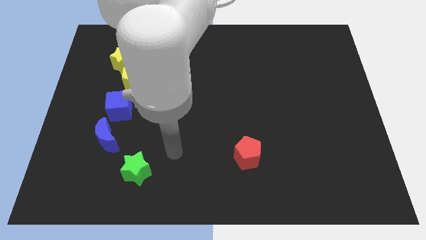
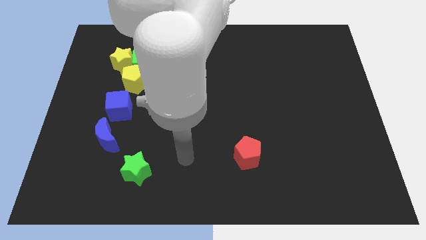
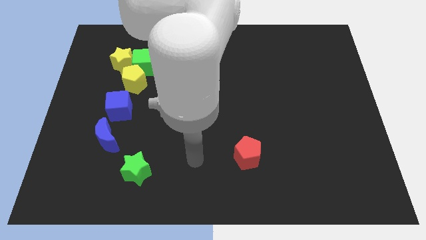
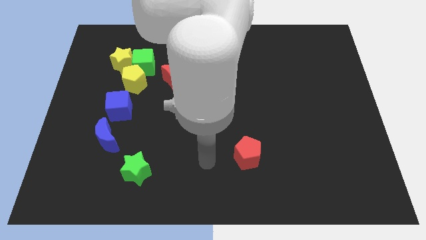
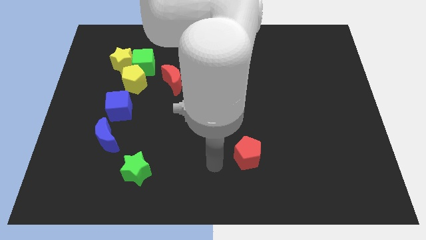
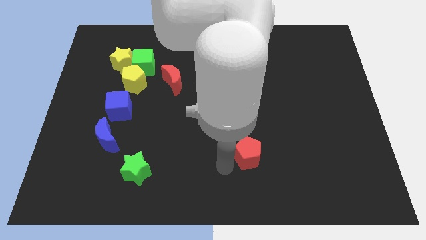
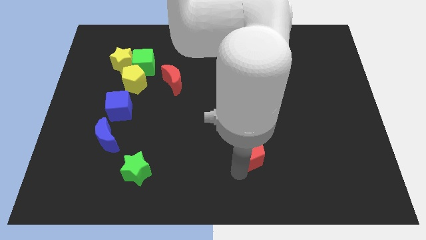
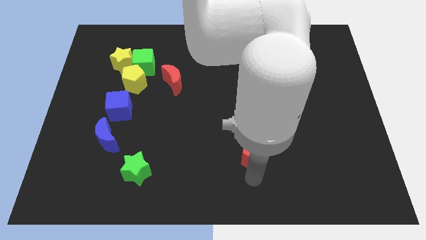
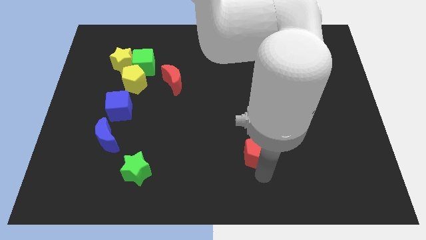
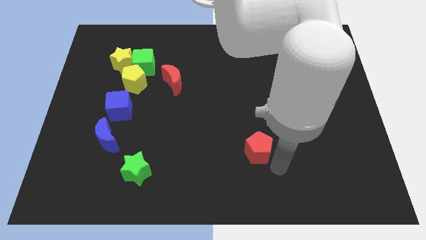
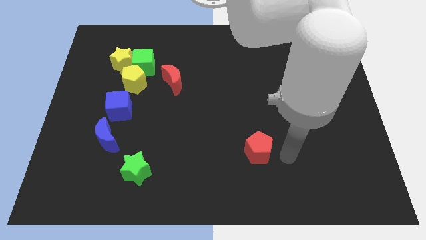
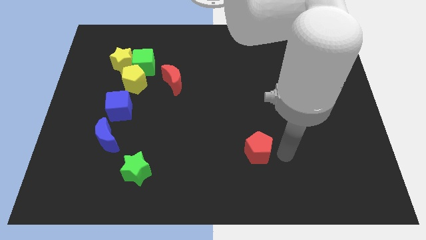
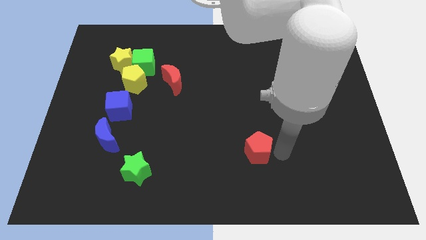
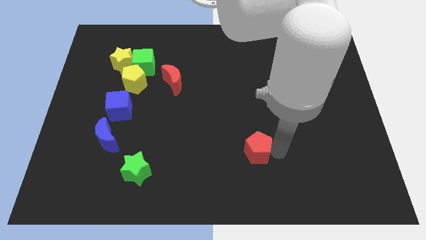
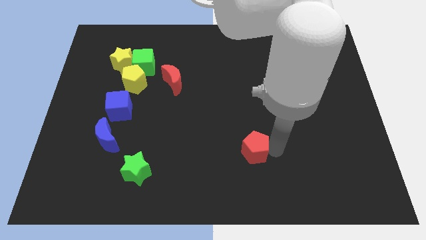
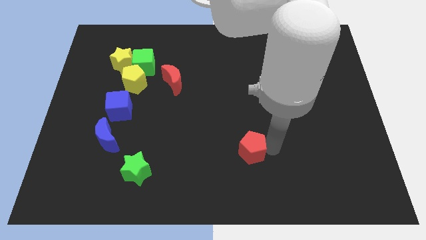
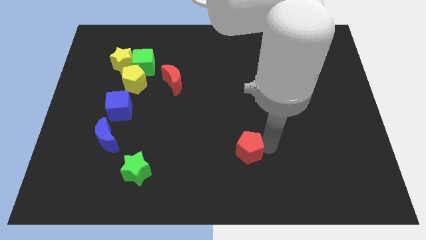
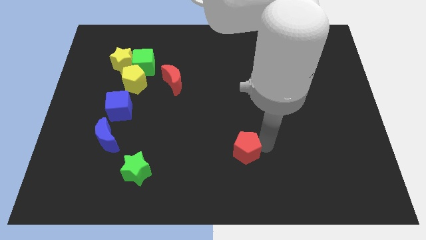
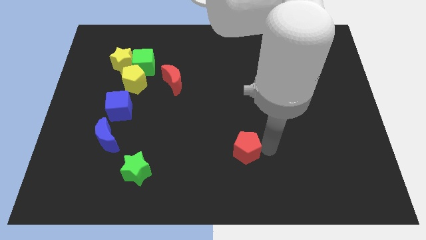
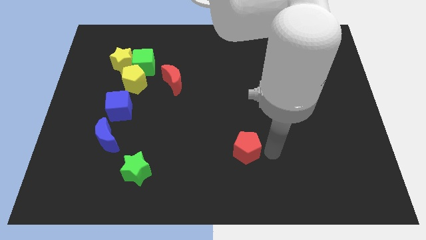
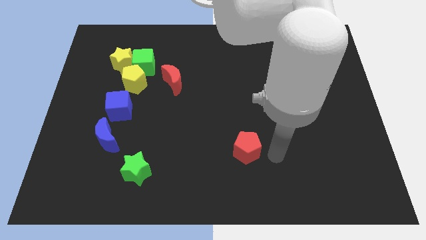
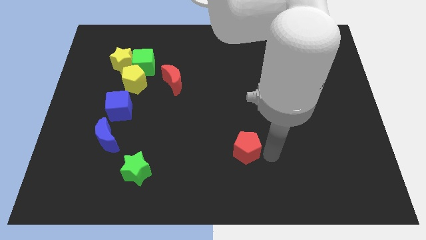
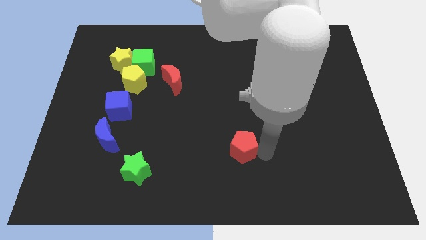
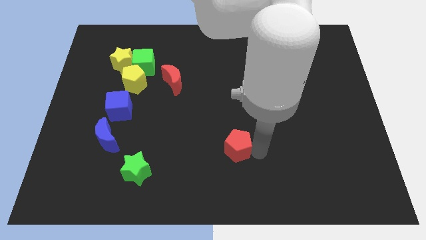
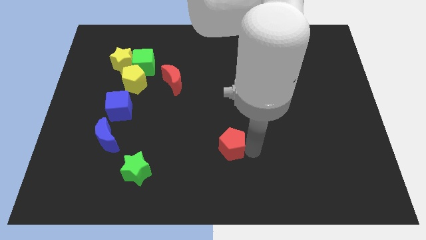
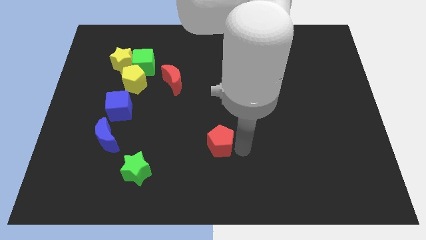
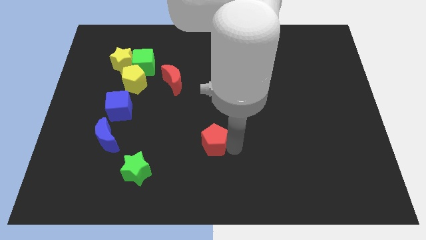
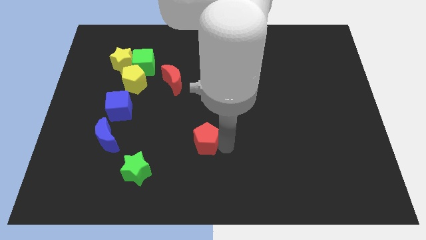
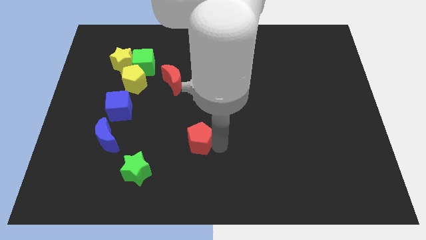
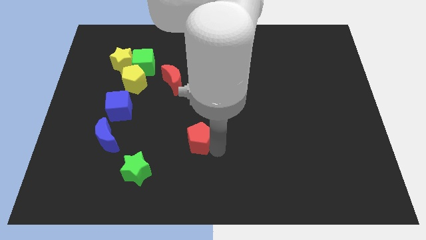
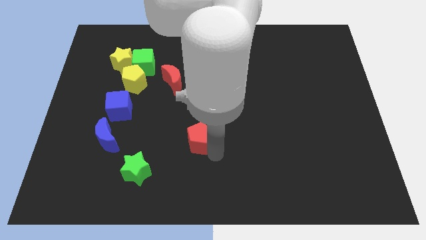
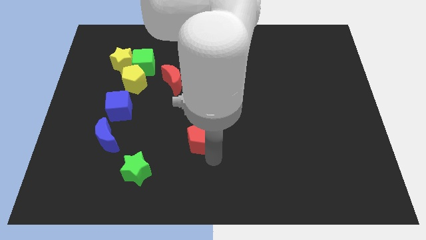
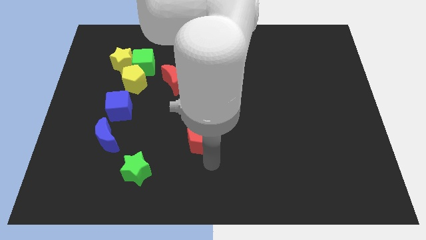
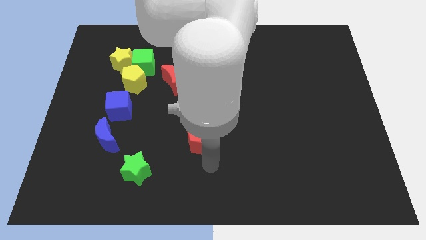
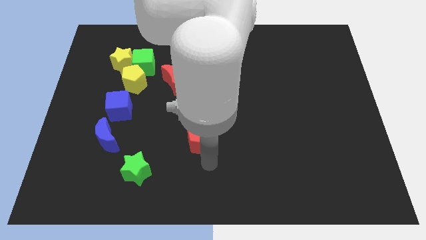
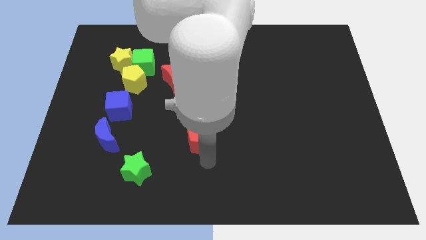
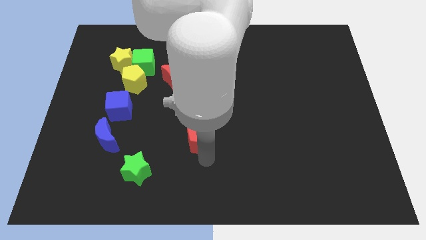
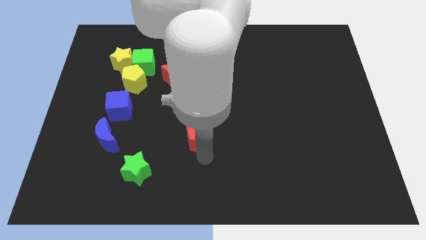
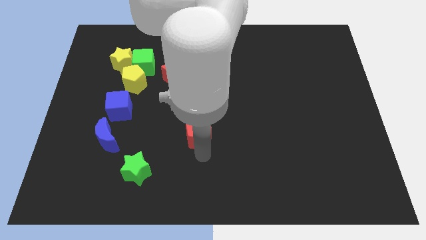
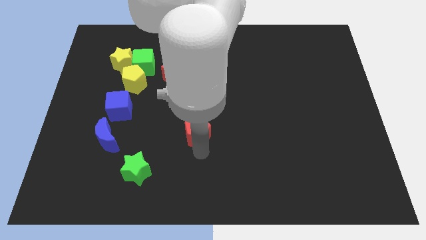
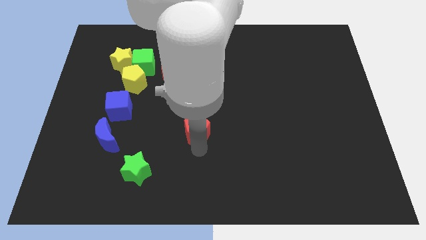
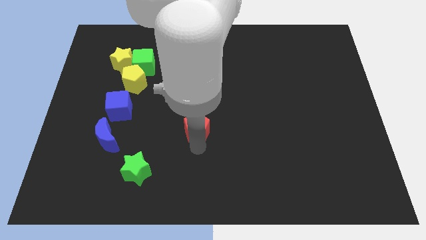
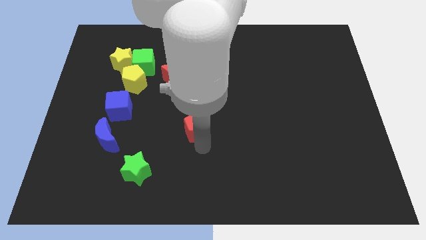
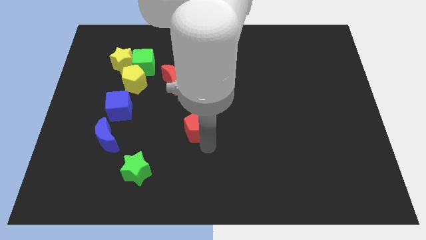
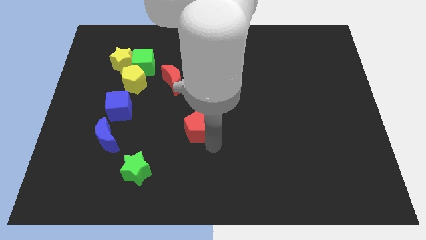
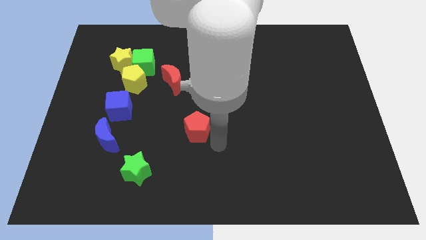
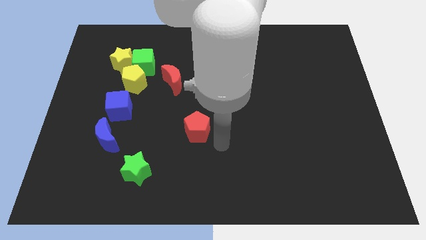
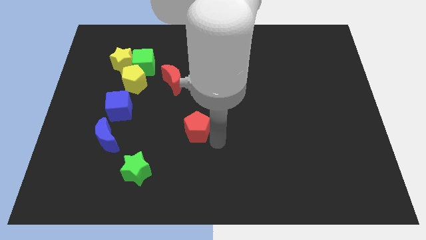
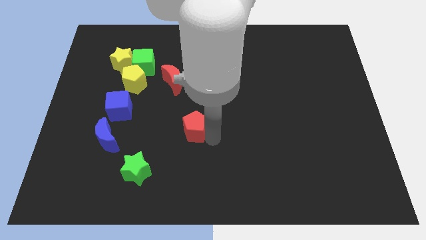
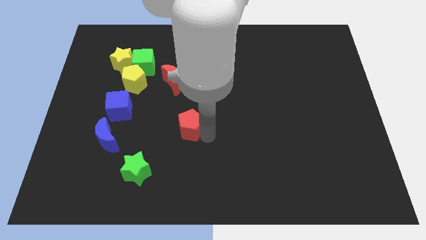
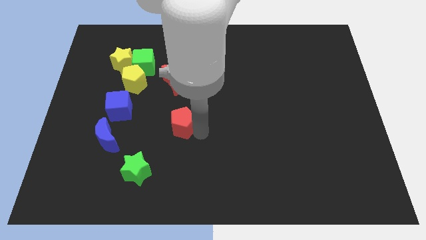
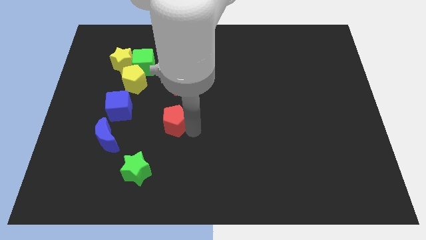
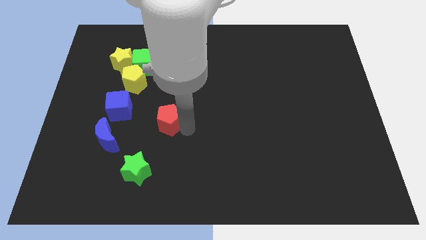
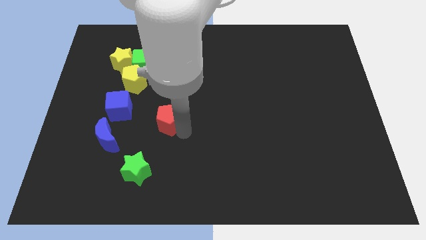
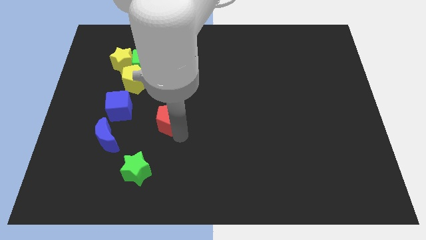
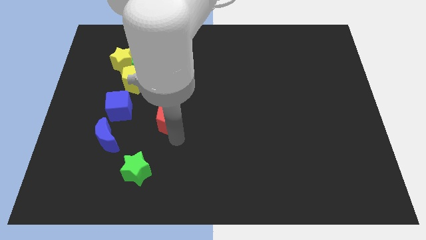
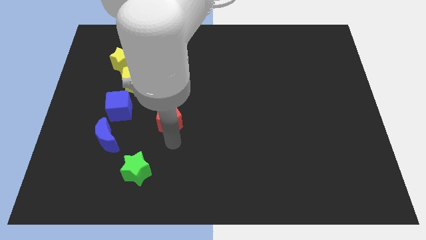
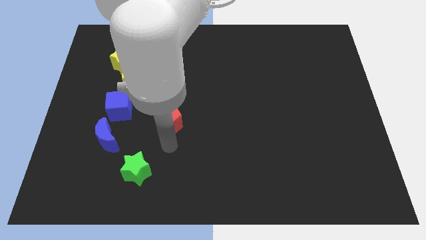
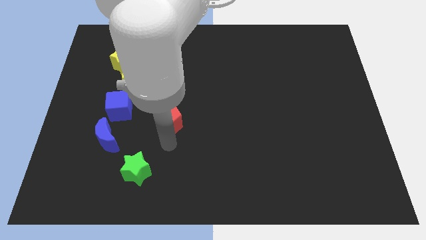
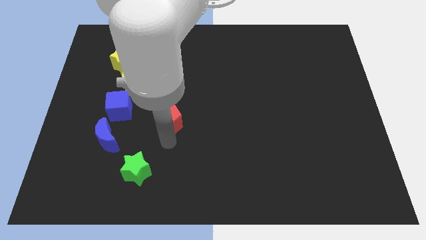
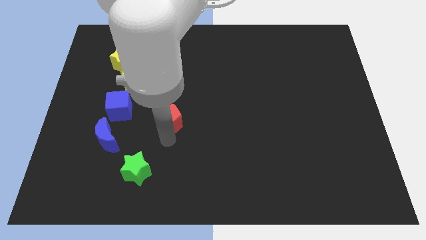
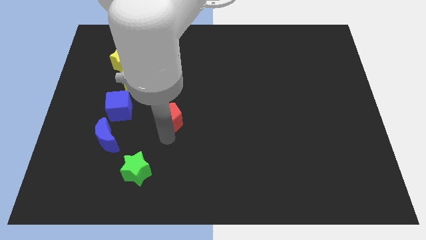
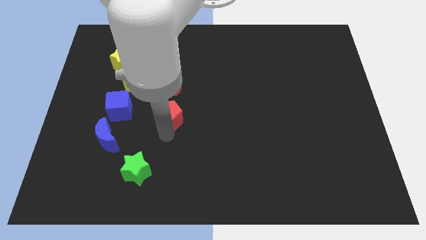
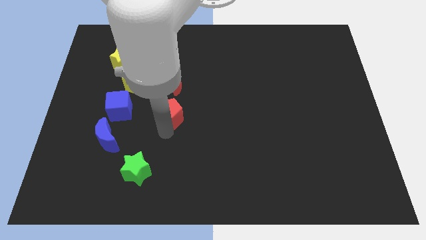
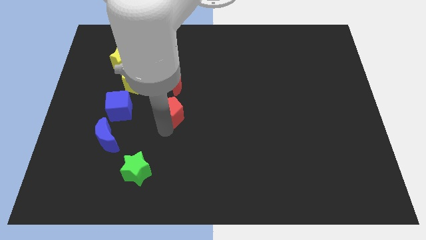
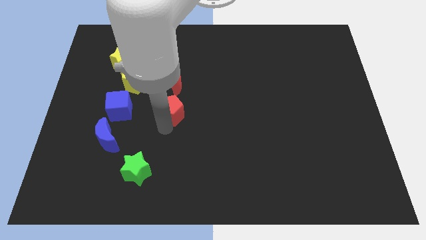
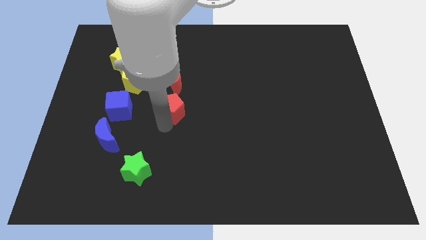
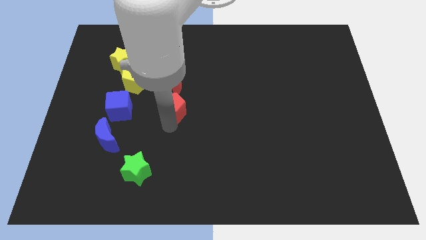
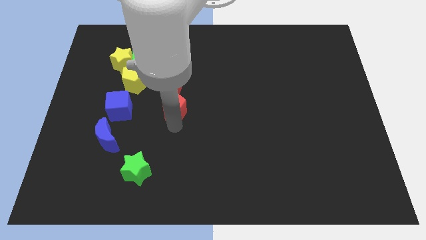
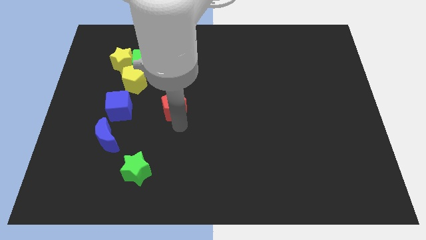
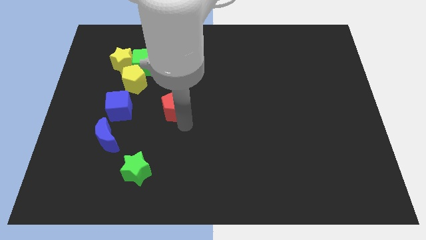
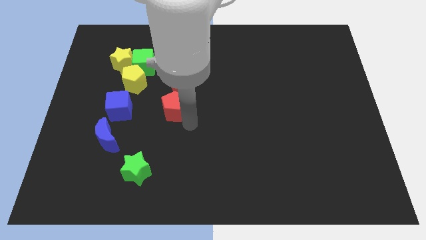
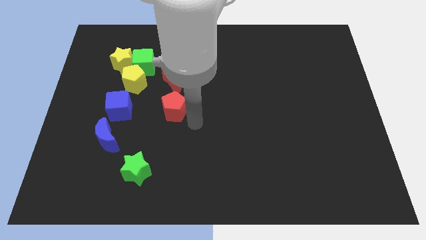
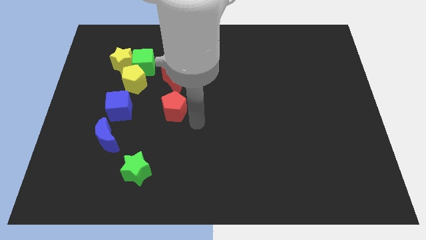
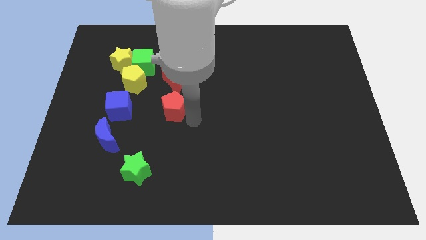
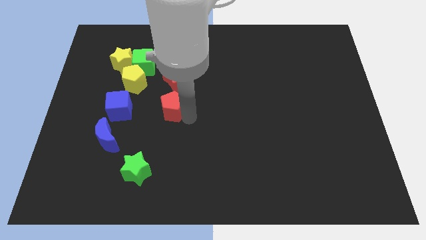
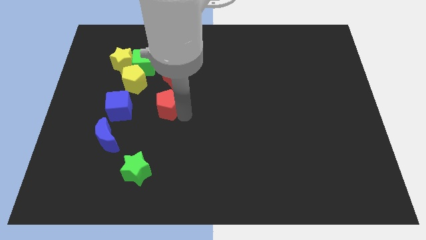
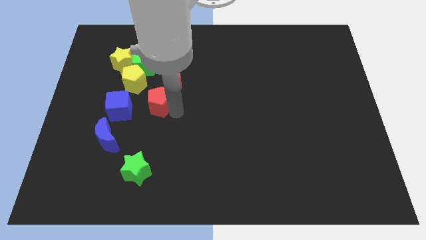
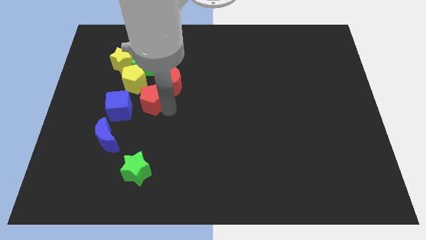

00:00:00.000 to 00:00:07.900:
slide the red pentagon to the bottom side of the green cube
